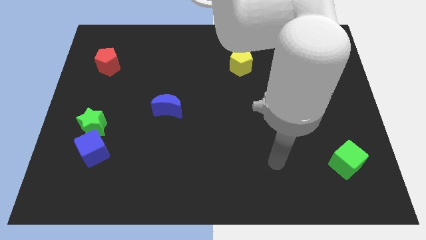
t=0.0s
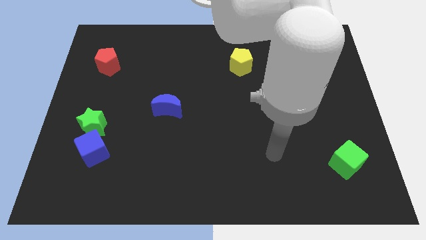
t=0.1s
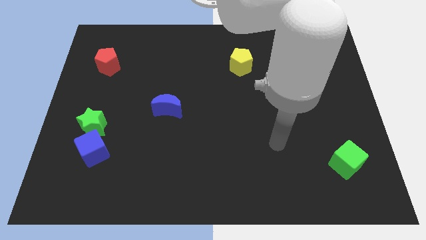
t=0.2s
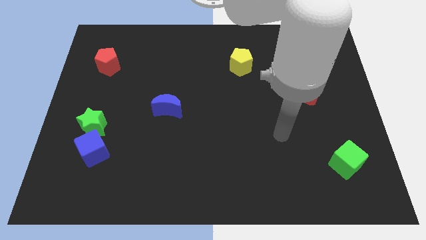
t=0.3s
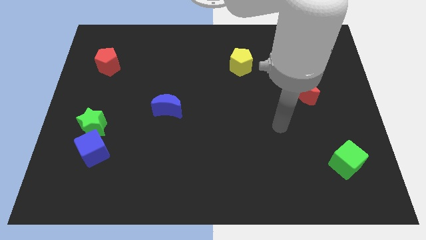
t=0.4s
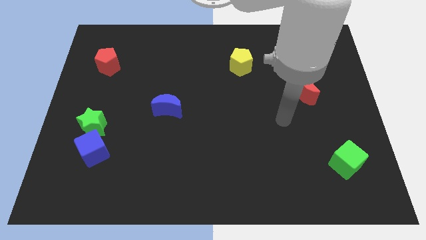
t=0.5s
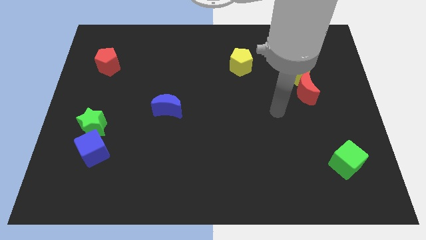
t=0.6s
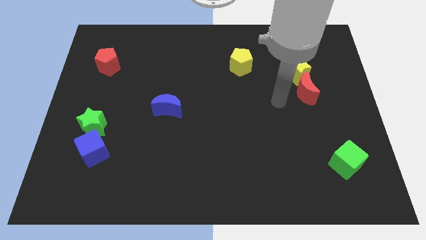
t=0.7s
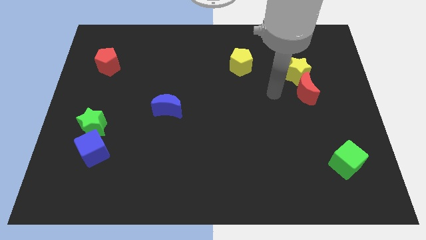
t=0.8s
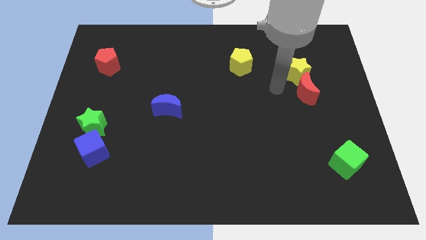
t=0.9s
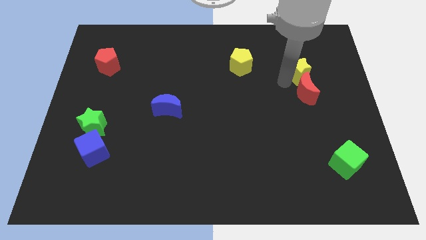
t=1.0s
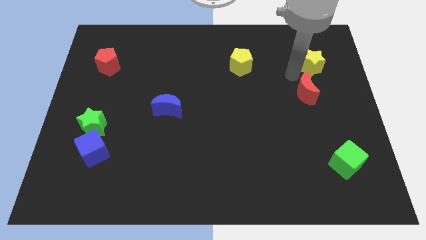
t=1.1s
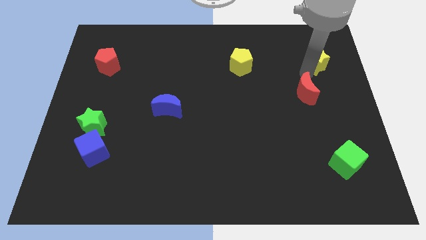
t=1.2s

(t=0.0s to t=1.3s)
move the red moon away from the yellow star

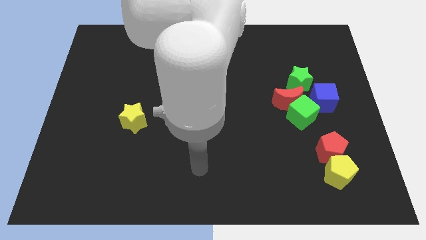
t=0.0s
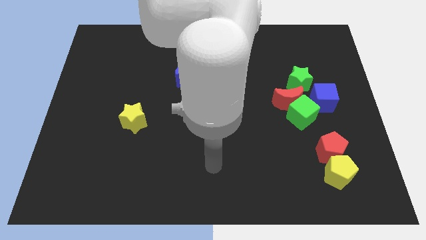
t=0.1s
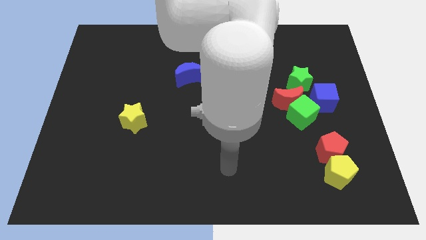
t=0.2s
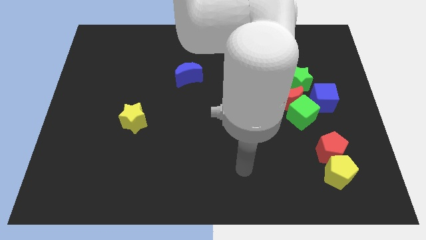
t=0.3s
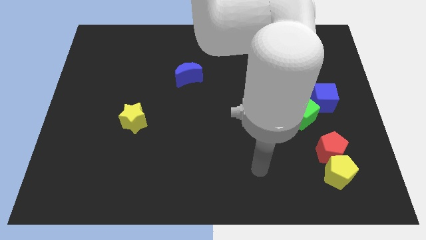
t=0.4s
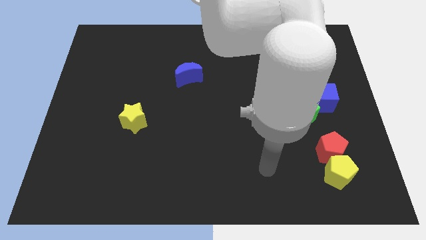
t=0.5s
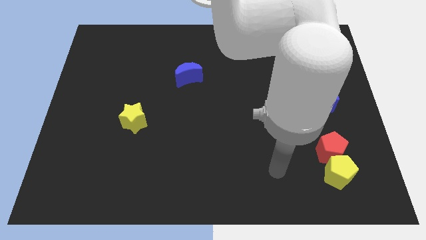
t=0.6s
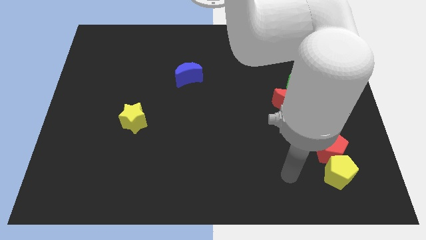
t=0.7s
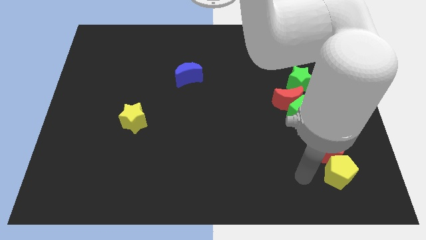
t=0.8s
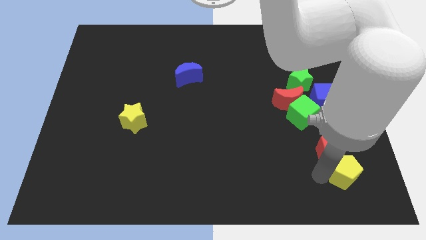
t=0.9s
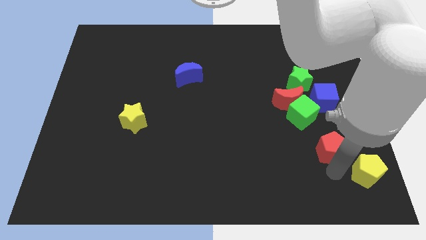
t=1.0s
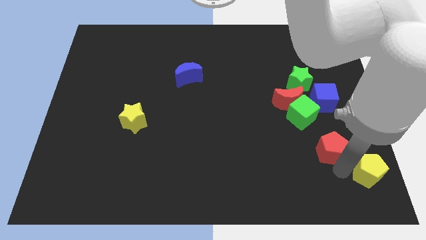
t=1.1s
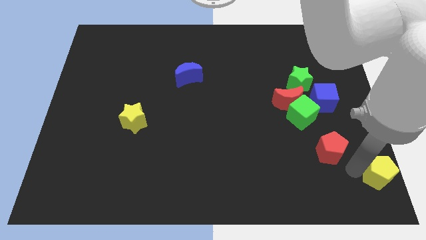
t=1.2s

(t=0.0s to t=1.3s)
separate the red pentagon from the yellow pentagon

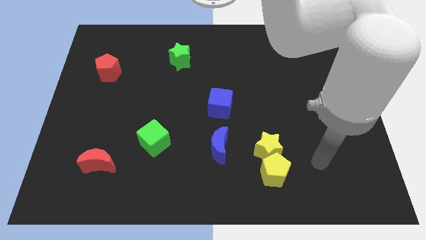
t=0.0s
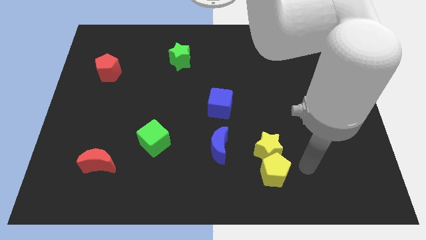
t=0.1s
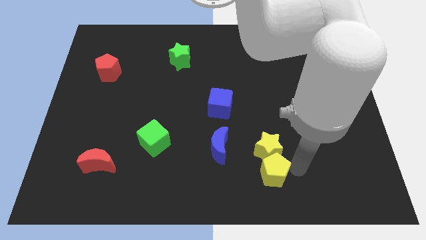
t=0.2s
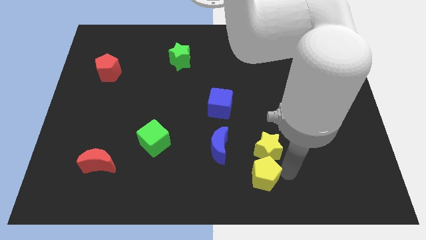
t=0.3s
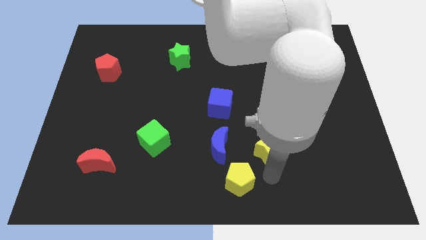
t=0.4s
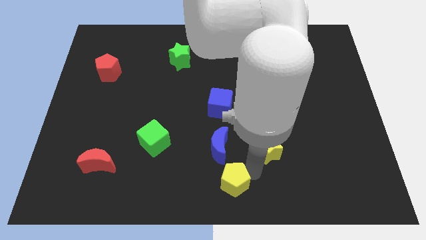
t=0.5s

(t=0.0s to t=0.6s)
separate the yellow star from the yellow pentagon

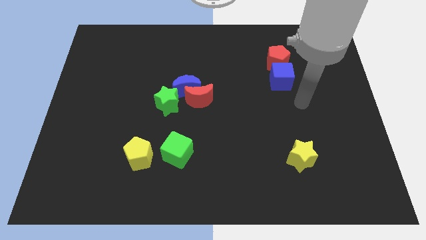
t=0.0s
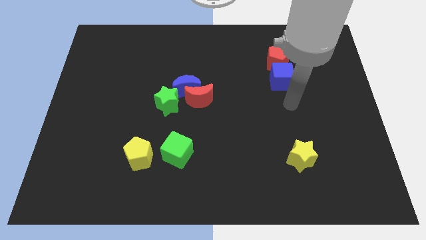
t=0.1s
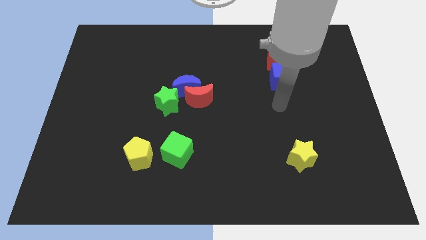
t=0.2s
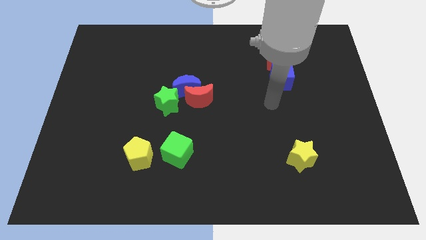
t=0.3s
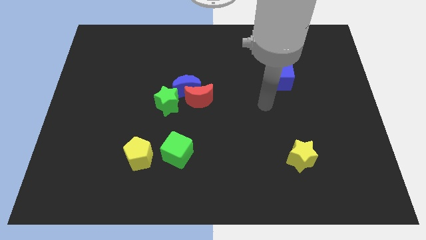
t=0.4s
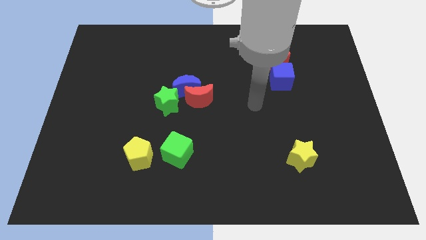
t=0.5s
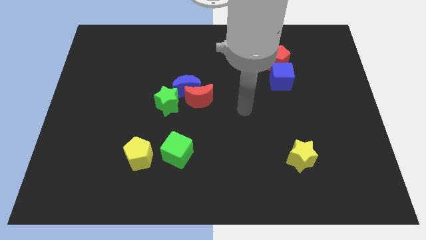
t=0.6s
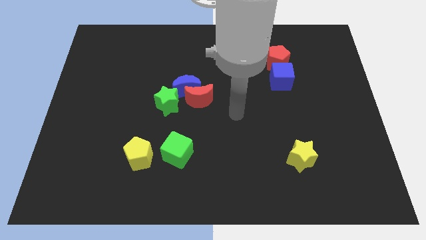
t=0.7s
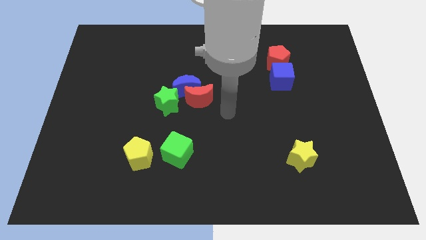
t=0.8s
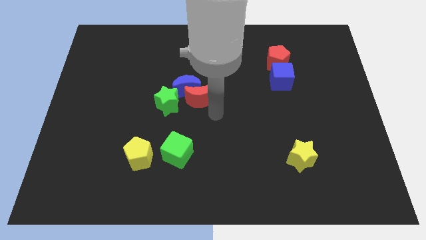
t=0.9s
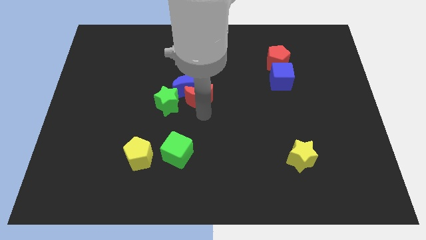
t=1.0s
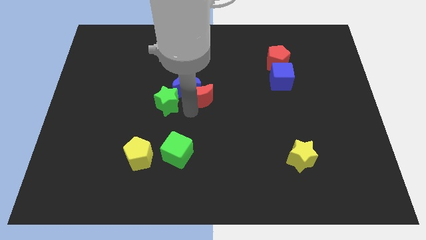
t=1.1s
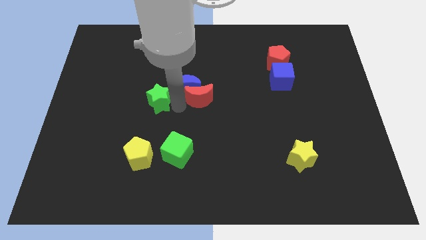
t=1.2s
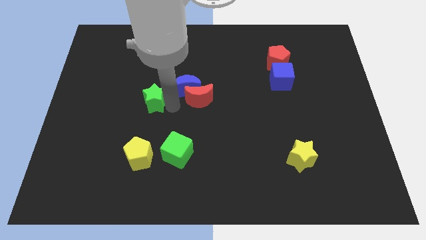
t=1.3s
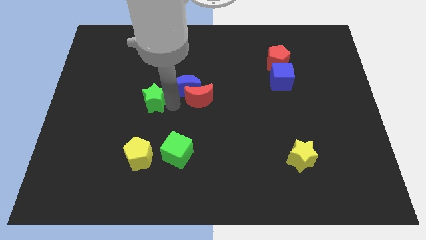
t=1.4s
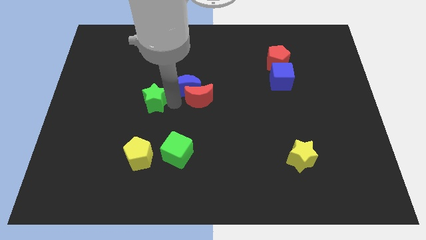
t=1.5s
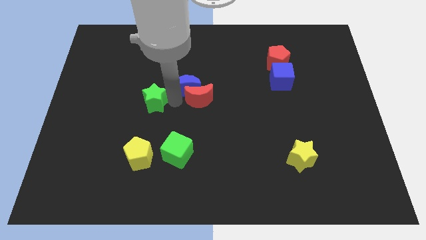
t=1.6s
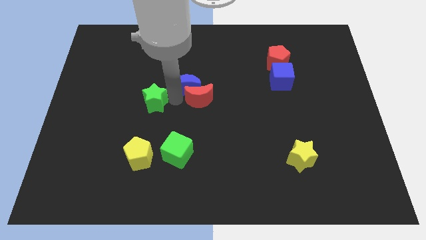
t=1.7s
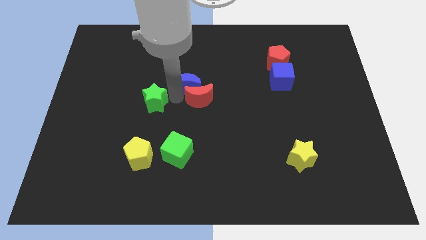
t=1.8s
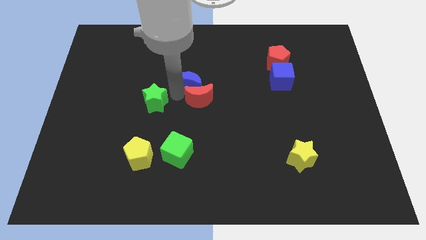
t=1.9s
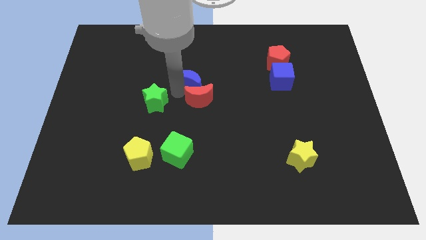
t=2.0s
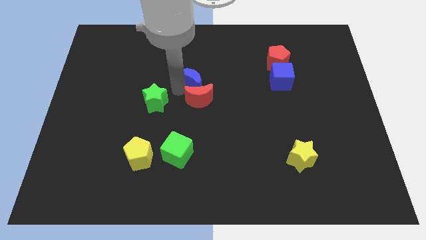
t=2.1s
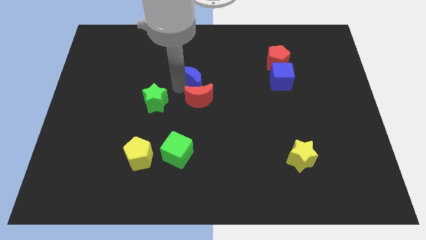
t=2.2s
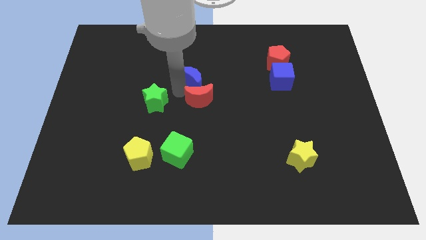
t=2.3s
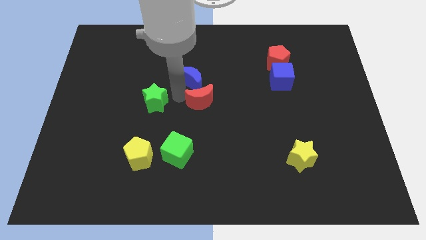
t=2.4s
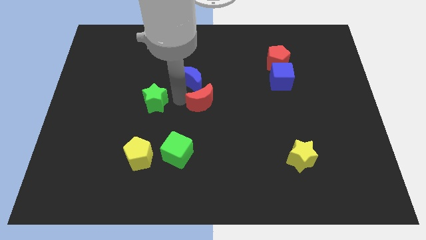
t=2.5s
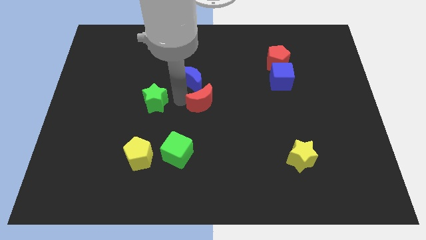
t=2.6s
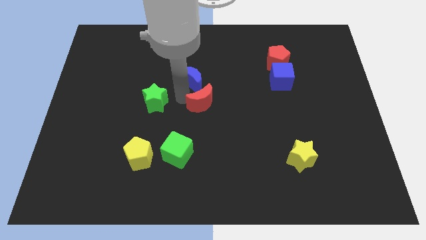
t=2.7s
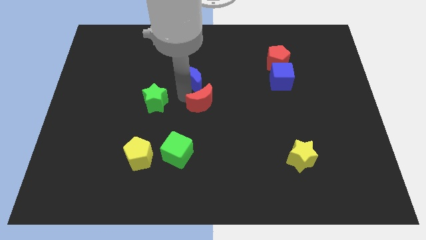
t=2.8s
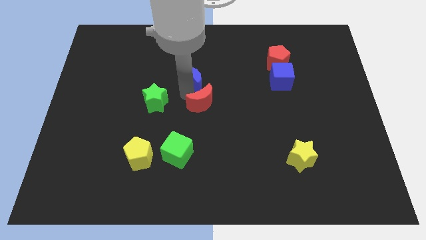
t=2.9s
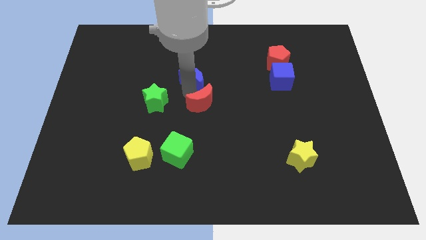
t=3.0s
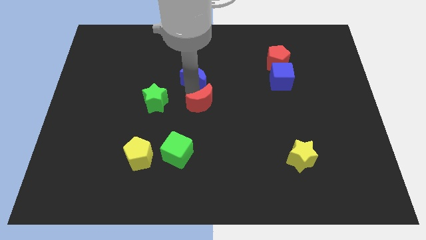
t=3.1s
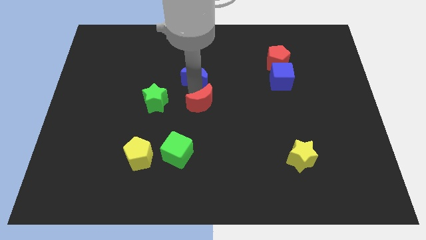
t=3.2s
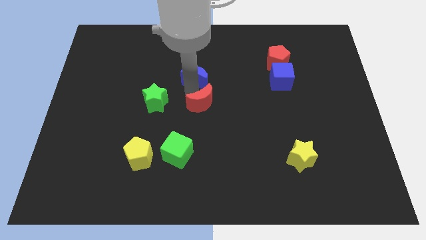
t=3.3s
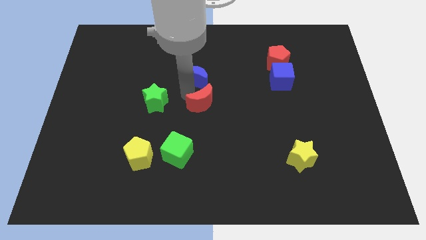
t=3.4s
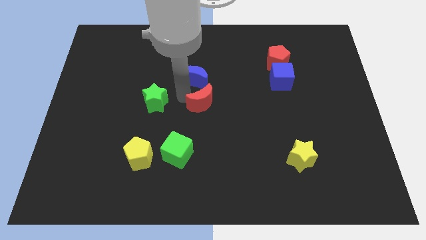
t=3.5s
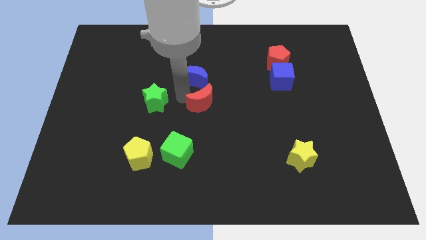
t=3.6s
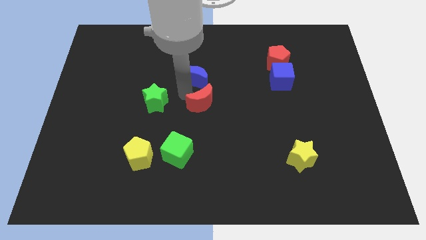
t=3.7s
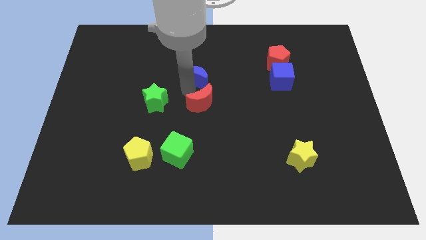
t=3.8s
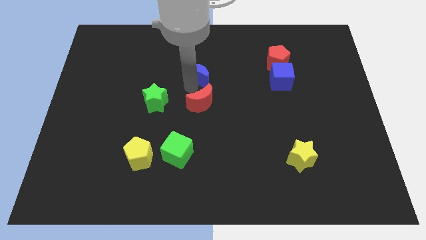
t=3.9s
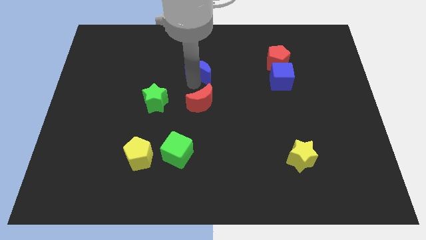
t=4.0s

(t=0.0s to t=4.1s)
separate the blue moon from the red moon and green star

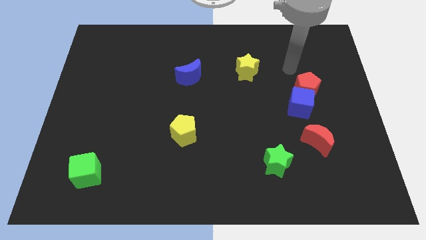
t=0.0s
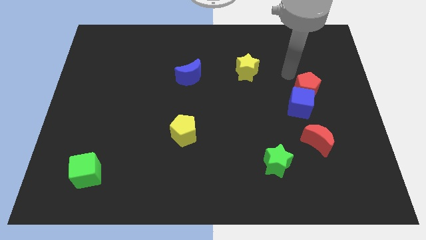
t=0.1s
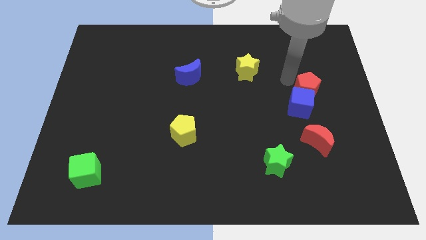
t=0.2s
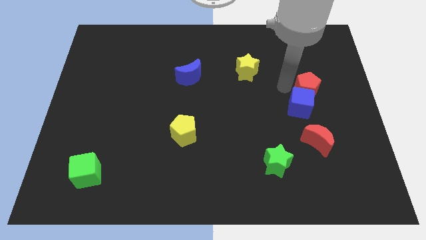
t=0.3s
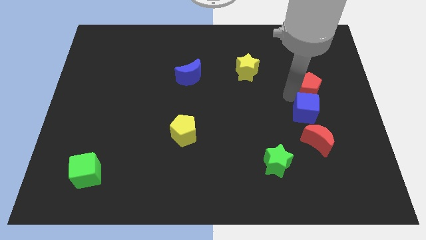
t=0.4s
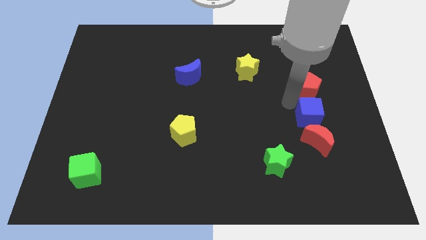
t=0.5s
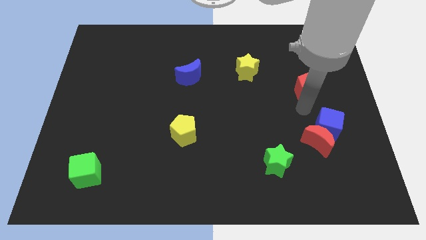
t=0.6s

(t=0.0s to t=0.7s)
separate the red pentagon from the blue cube

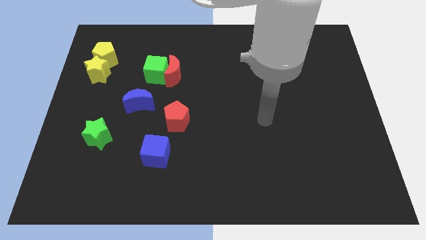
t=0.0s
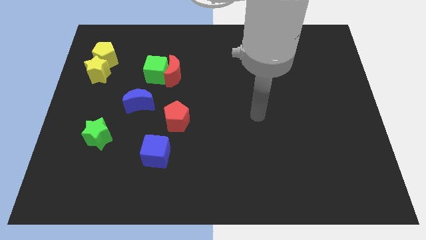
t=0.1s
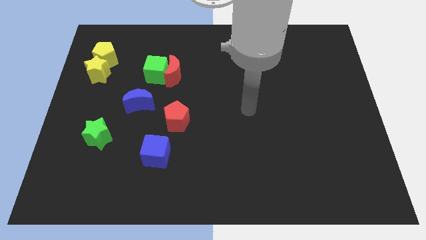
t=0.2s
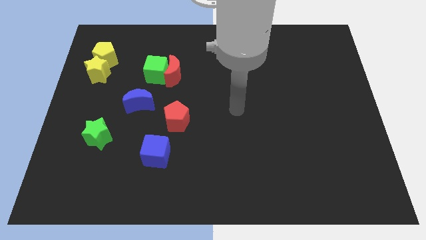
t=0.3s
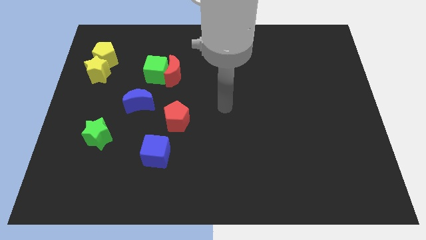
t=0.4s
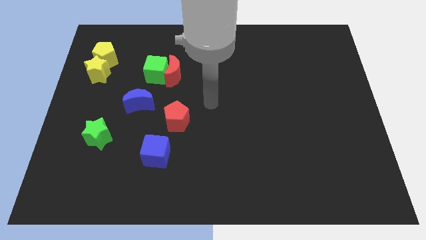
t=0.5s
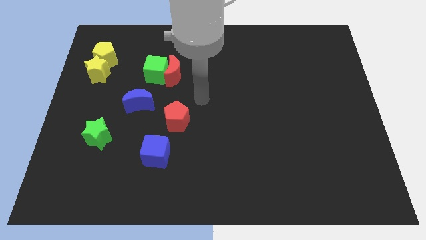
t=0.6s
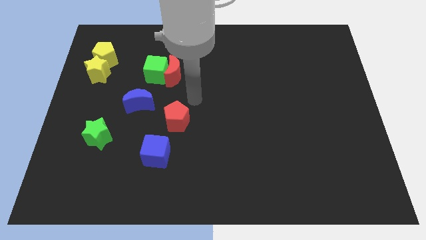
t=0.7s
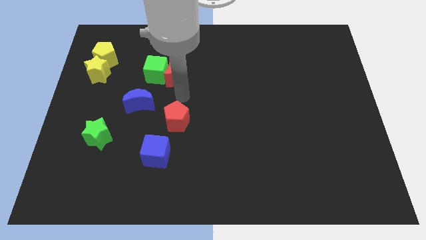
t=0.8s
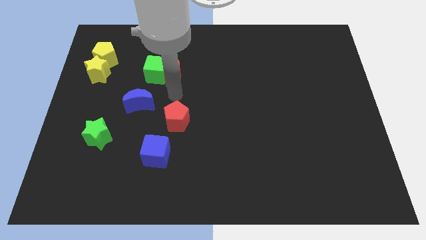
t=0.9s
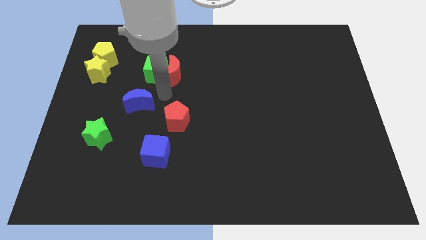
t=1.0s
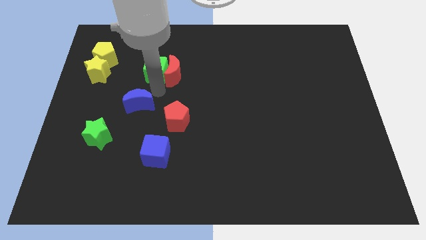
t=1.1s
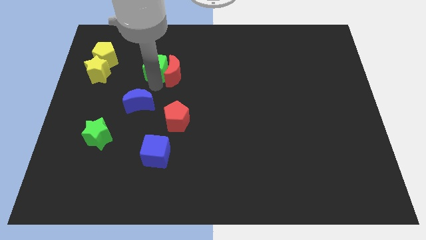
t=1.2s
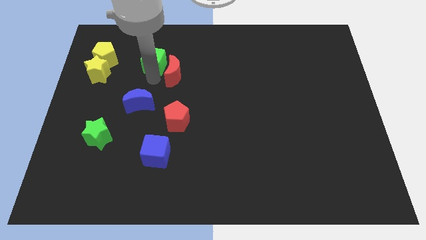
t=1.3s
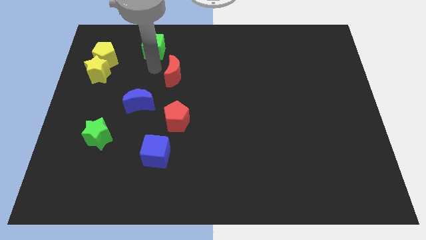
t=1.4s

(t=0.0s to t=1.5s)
separate the red moon from the green cube
